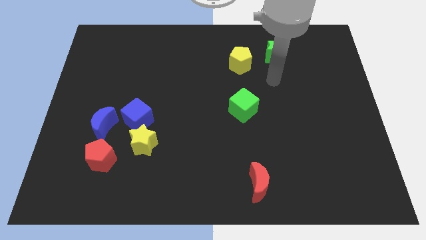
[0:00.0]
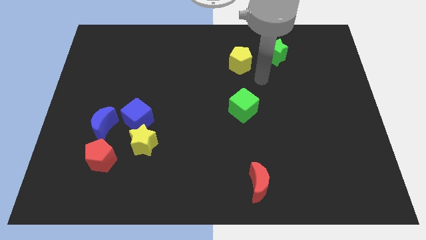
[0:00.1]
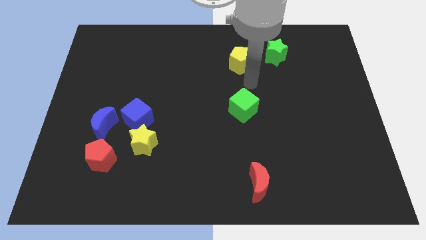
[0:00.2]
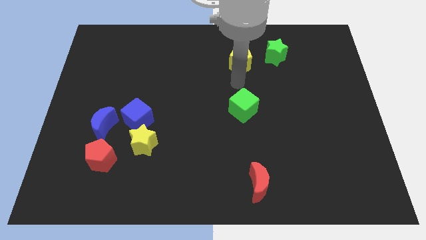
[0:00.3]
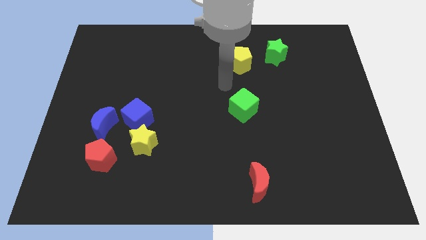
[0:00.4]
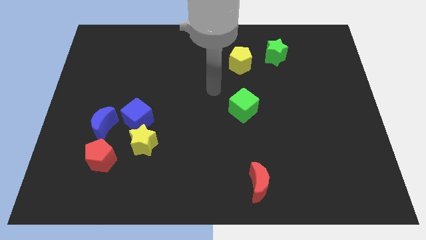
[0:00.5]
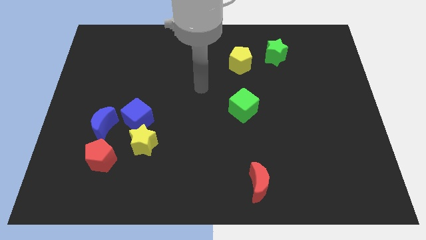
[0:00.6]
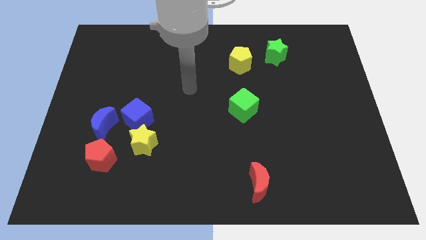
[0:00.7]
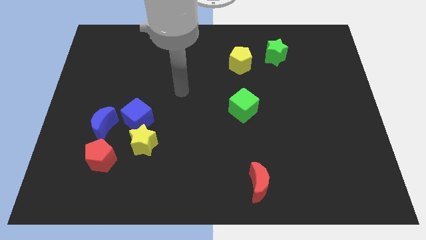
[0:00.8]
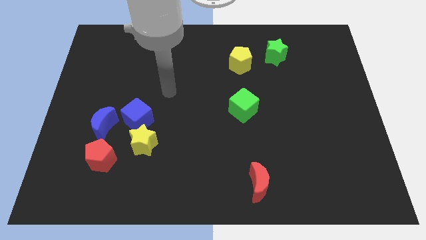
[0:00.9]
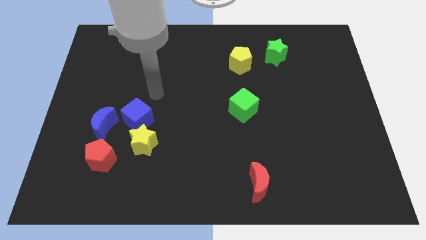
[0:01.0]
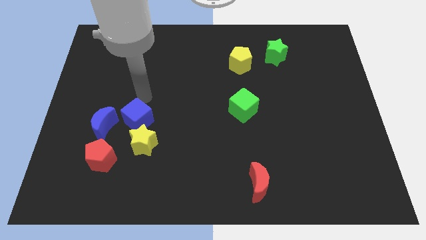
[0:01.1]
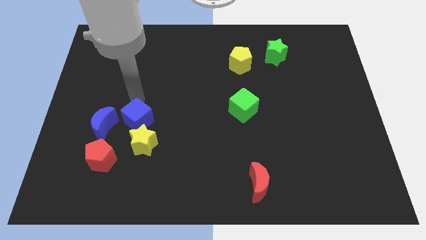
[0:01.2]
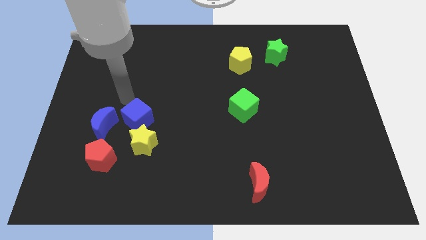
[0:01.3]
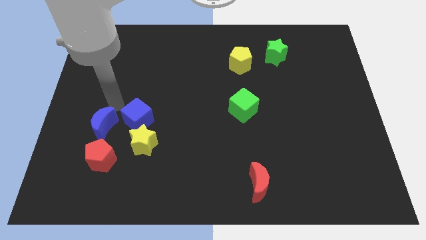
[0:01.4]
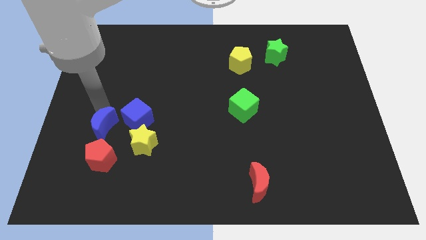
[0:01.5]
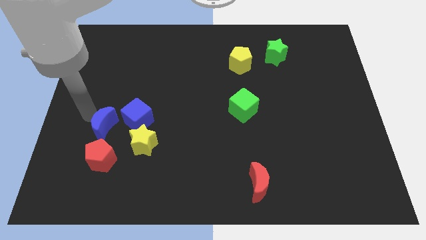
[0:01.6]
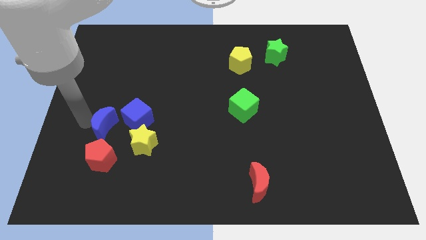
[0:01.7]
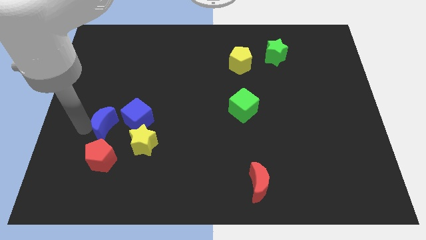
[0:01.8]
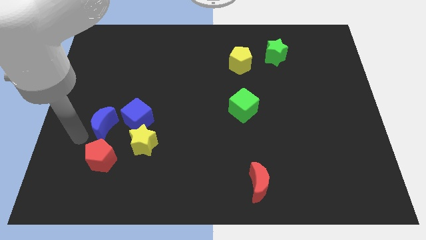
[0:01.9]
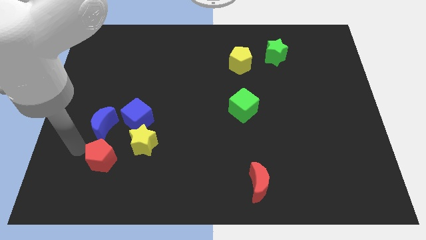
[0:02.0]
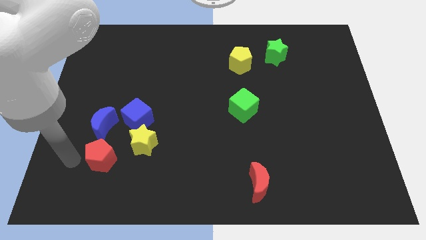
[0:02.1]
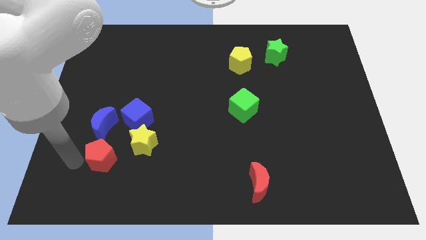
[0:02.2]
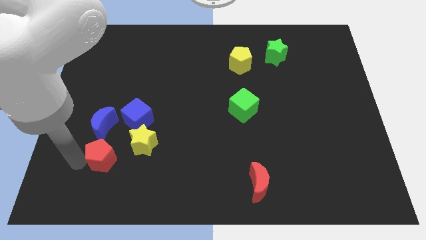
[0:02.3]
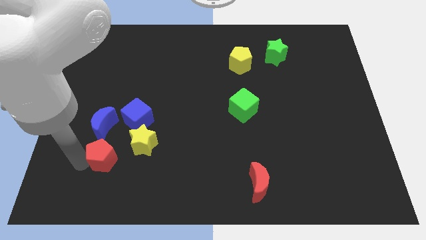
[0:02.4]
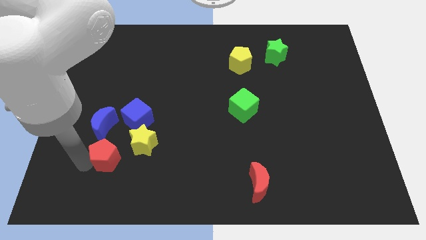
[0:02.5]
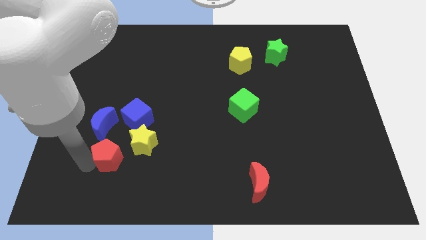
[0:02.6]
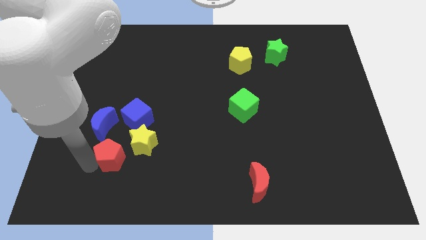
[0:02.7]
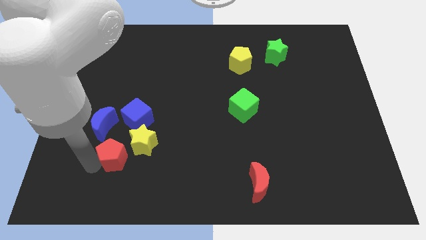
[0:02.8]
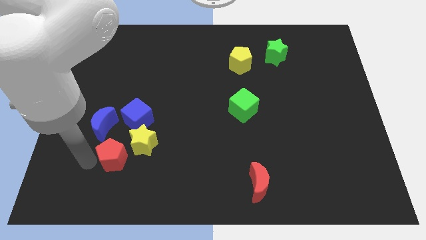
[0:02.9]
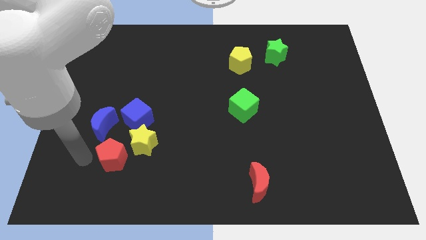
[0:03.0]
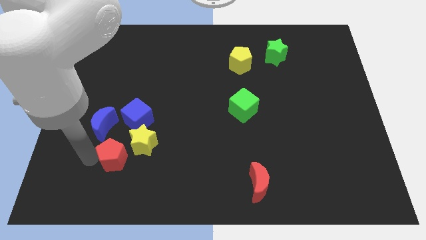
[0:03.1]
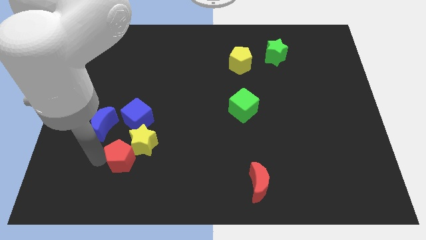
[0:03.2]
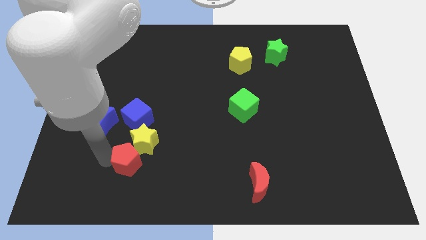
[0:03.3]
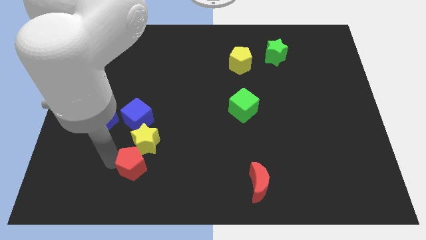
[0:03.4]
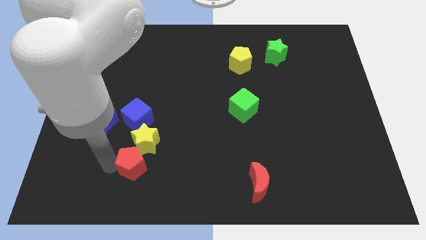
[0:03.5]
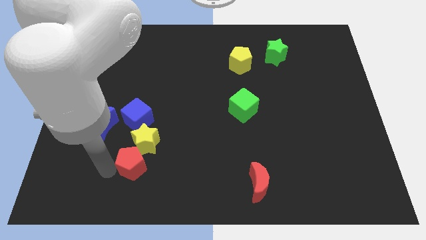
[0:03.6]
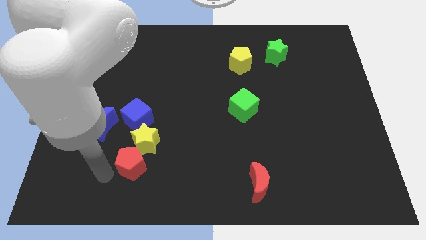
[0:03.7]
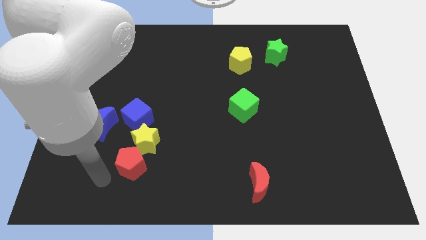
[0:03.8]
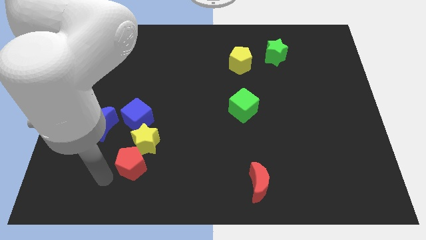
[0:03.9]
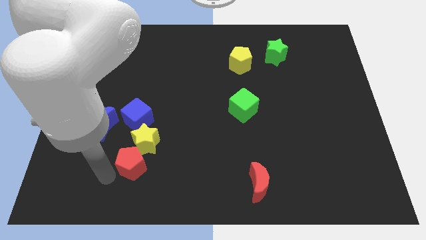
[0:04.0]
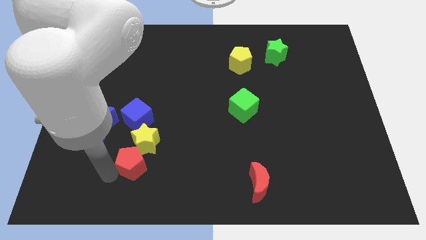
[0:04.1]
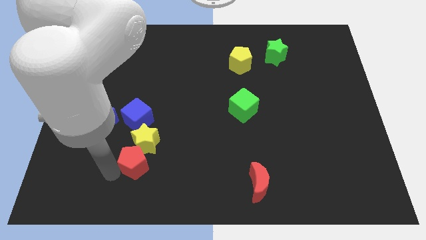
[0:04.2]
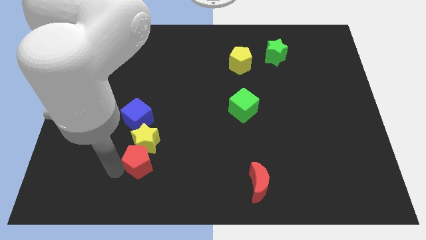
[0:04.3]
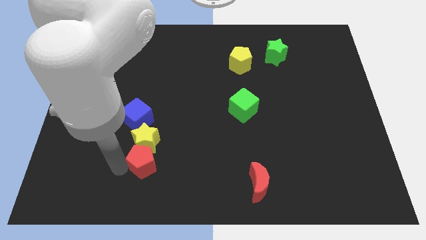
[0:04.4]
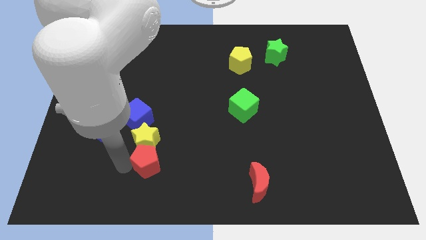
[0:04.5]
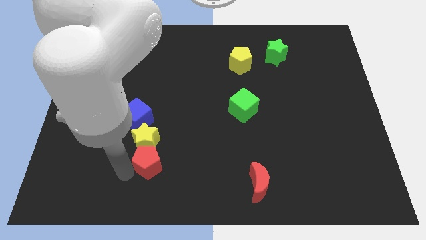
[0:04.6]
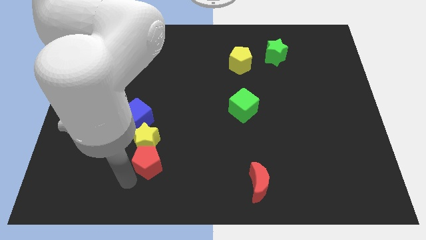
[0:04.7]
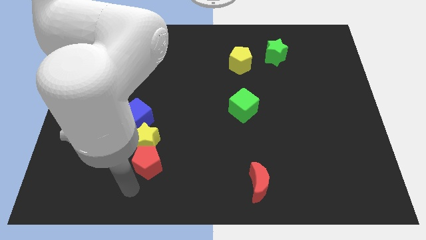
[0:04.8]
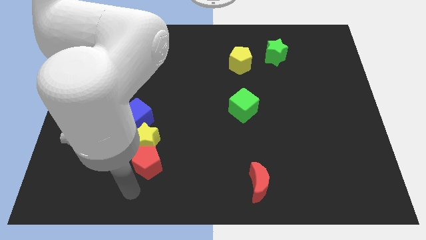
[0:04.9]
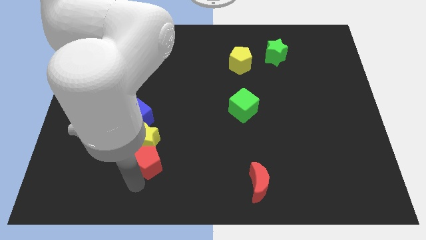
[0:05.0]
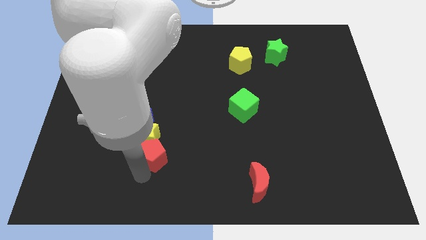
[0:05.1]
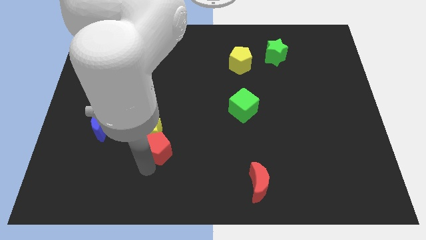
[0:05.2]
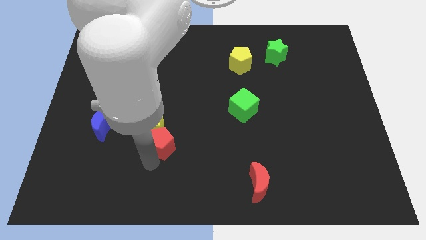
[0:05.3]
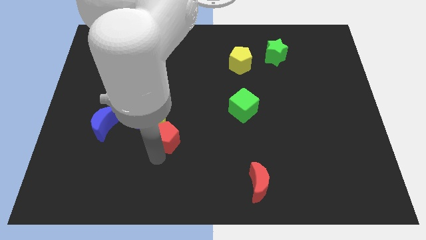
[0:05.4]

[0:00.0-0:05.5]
push the red pentagon to the right of the blue moon

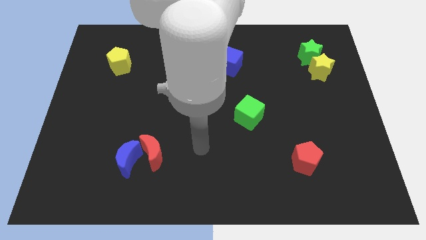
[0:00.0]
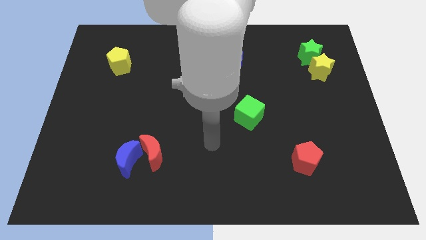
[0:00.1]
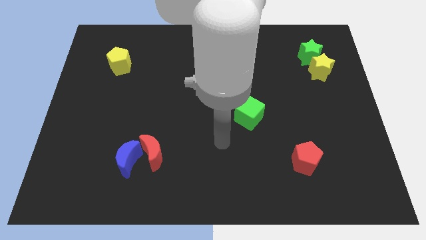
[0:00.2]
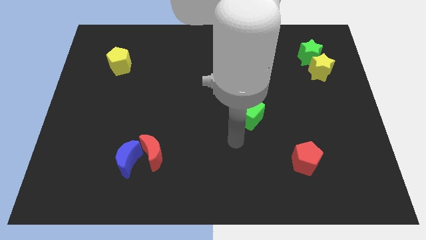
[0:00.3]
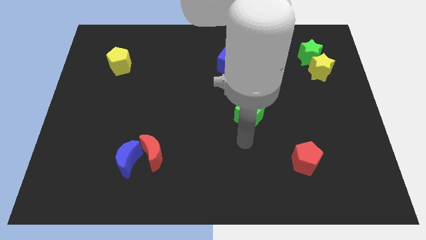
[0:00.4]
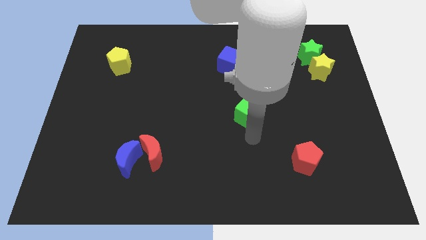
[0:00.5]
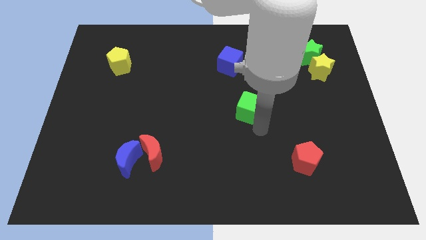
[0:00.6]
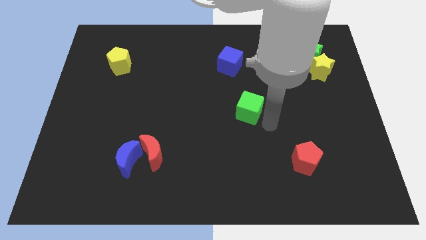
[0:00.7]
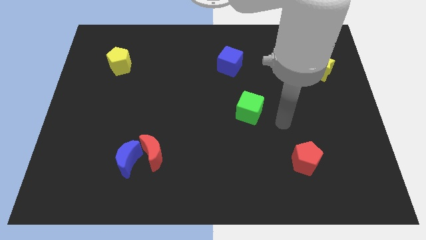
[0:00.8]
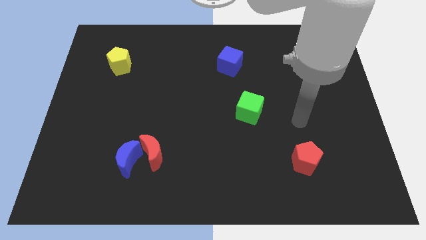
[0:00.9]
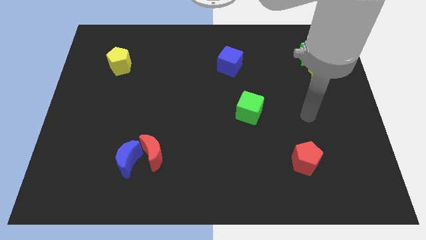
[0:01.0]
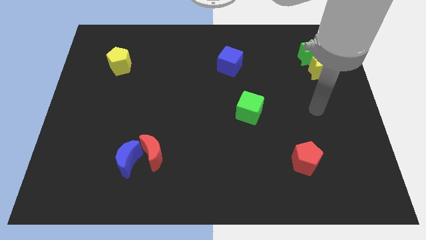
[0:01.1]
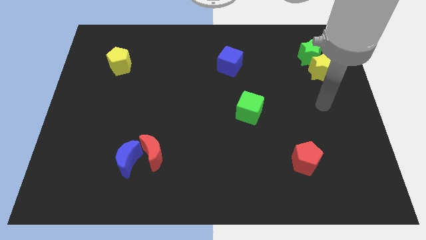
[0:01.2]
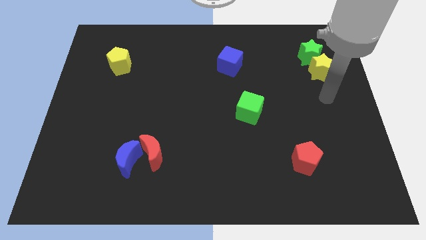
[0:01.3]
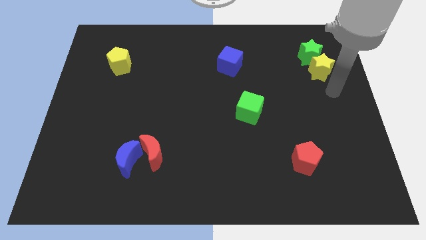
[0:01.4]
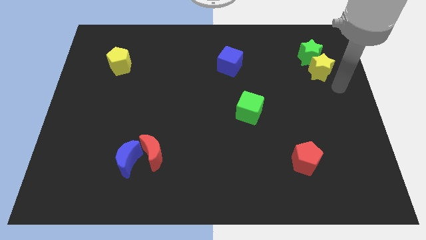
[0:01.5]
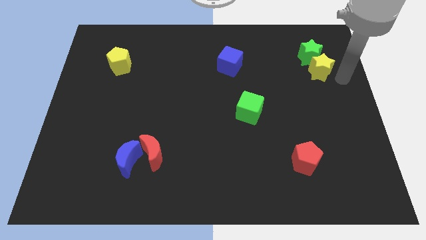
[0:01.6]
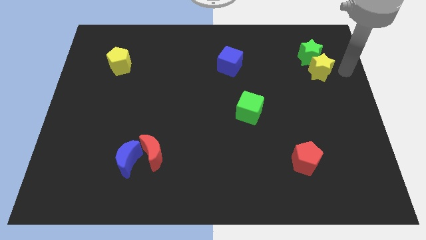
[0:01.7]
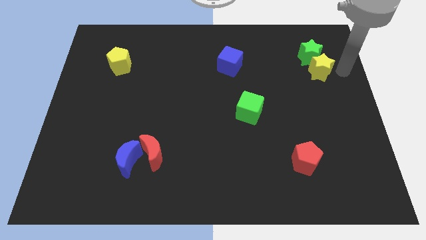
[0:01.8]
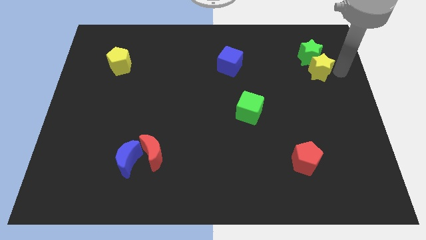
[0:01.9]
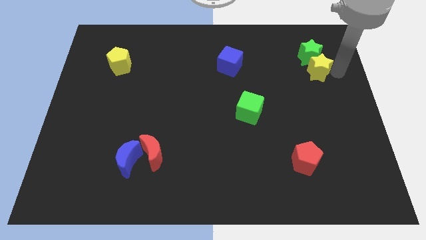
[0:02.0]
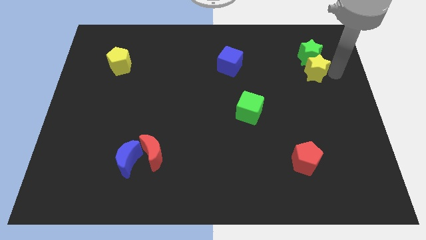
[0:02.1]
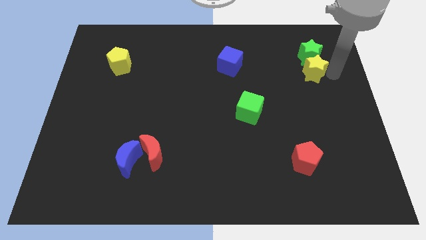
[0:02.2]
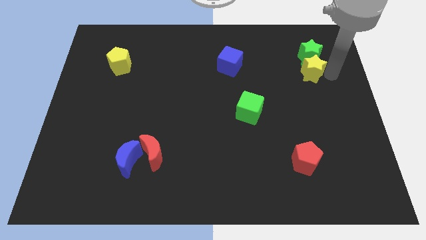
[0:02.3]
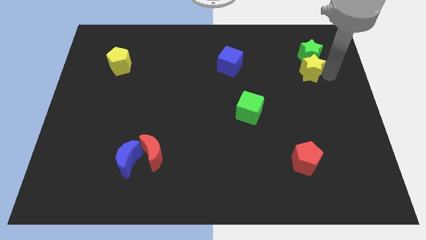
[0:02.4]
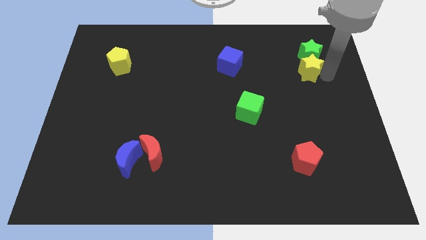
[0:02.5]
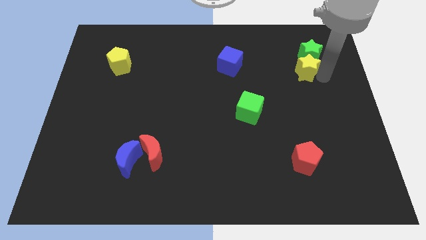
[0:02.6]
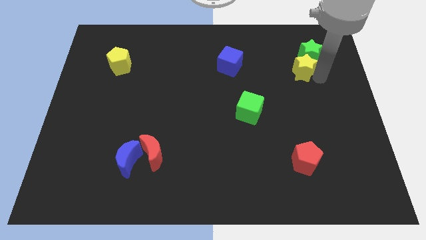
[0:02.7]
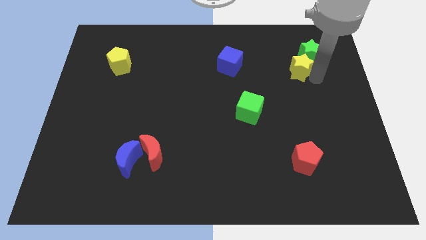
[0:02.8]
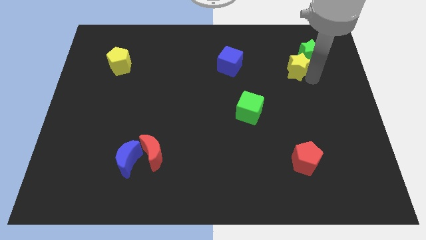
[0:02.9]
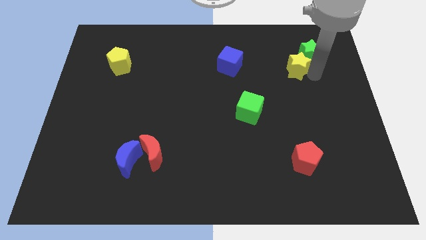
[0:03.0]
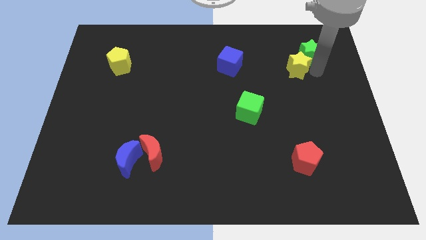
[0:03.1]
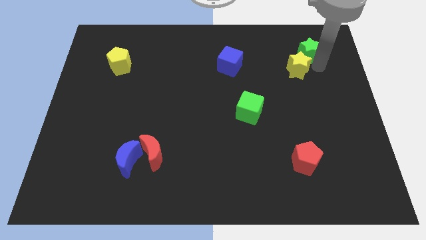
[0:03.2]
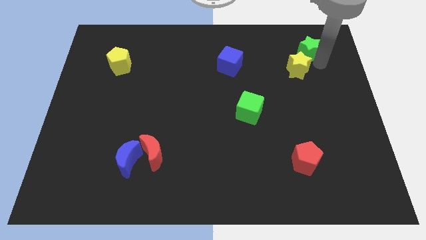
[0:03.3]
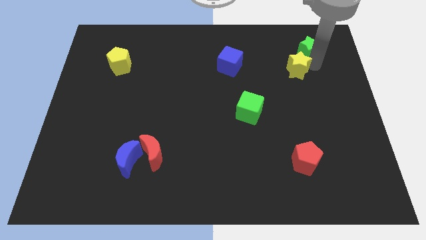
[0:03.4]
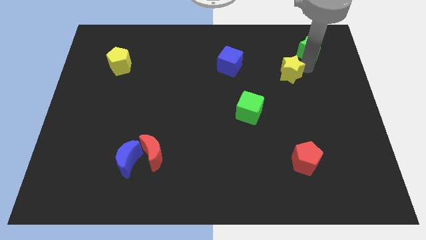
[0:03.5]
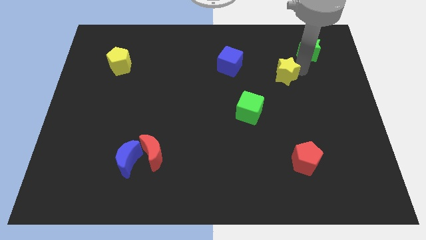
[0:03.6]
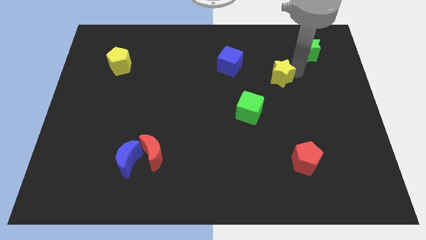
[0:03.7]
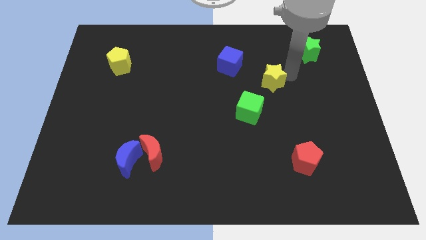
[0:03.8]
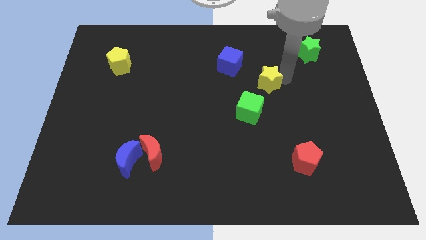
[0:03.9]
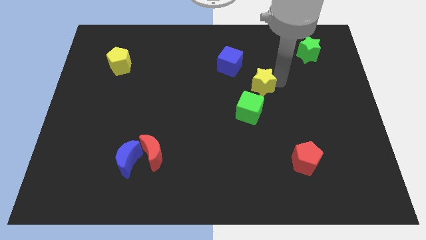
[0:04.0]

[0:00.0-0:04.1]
slide the yellow star to the top side of the green cube
